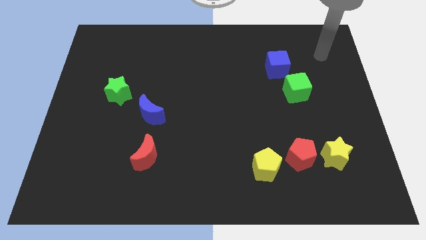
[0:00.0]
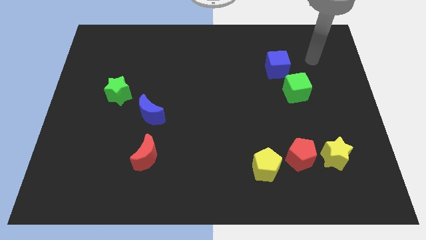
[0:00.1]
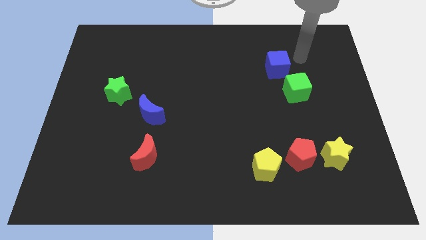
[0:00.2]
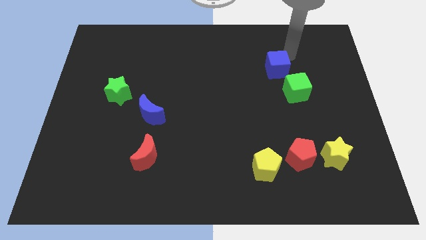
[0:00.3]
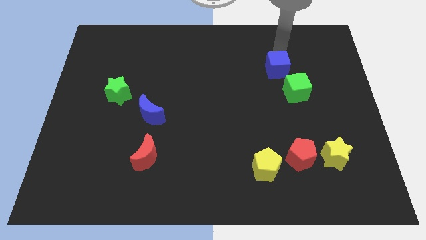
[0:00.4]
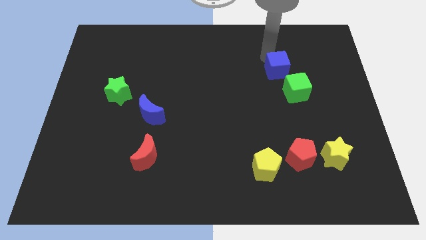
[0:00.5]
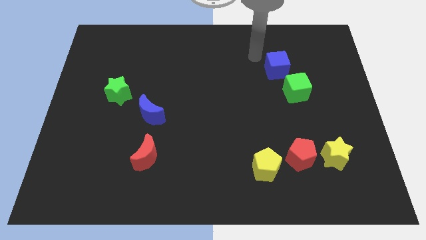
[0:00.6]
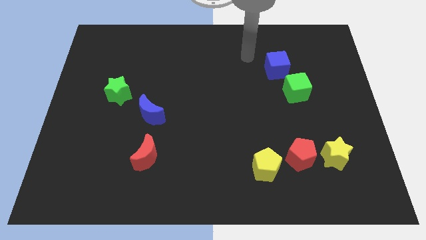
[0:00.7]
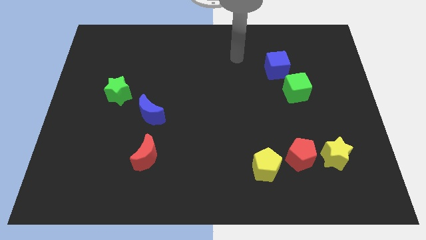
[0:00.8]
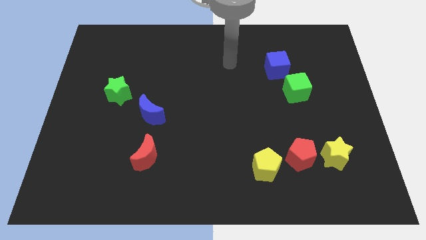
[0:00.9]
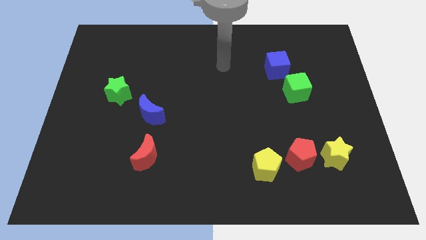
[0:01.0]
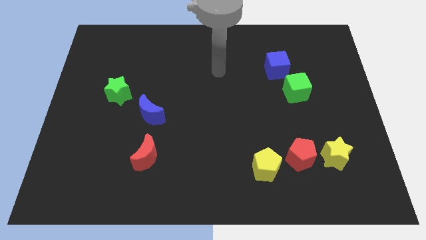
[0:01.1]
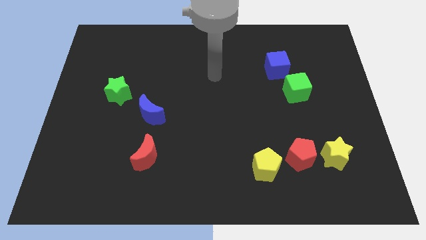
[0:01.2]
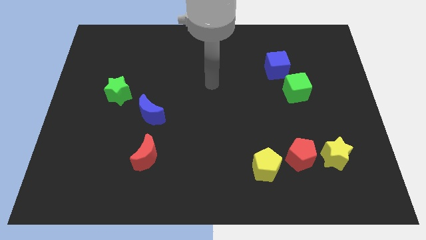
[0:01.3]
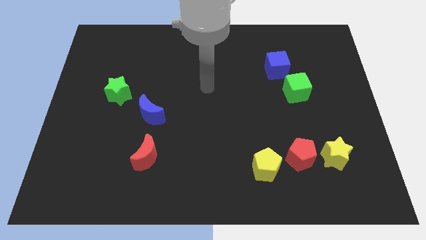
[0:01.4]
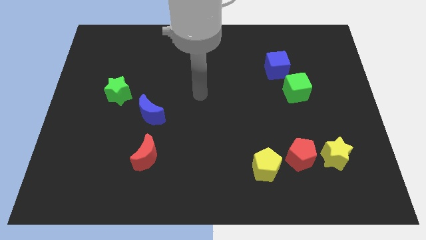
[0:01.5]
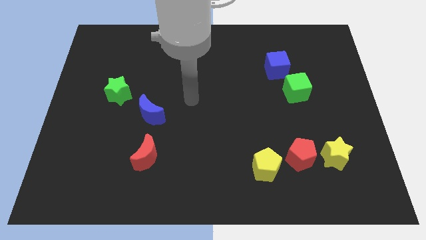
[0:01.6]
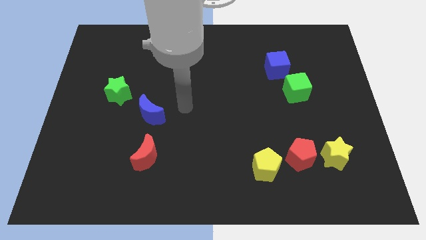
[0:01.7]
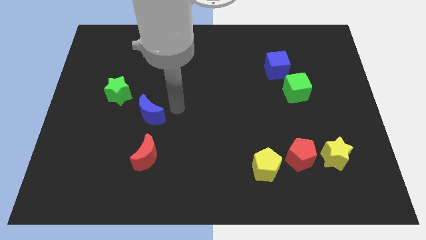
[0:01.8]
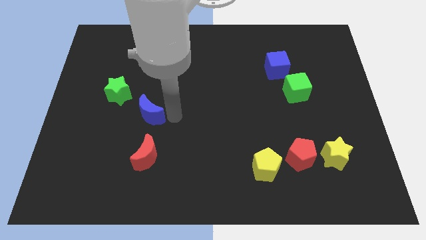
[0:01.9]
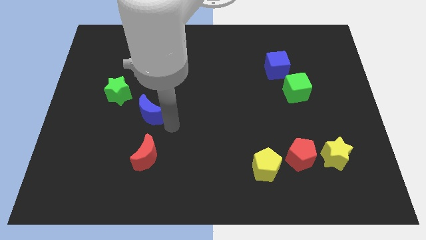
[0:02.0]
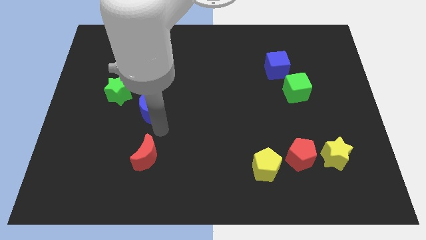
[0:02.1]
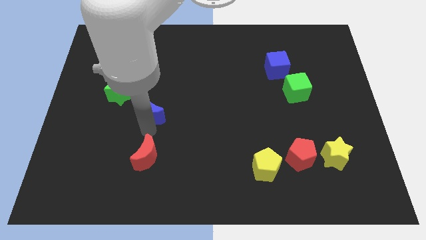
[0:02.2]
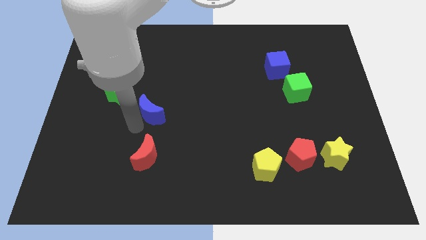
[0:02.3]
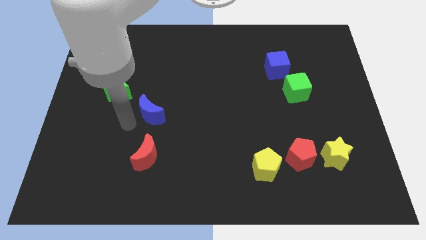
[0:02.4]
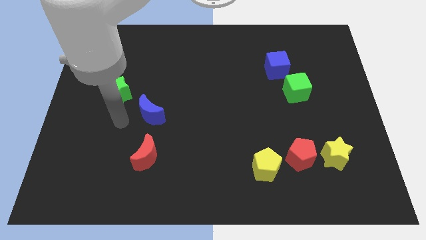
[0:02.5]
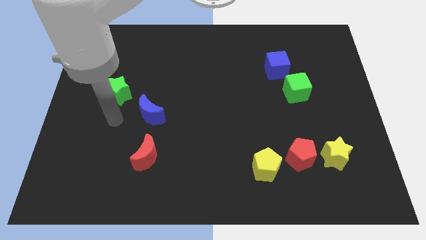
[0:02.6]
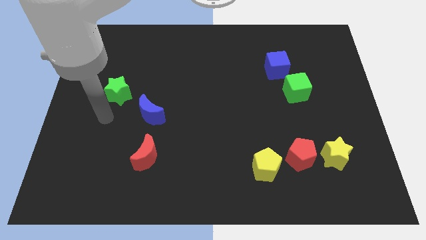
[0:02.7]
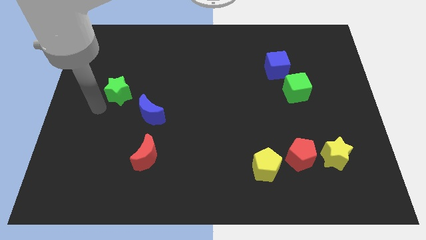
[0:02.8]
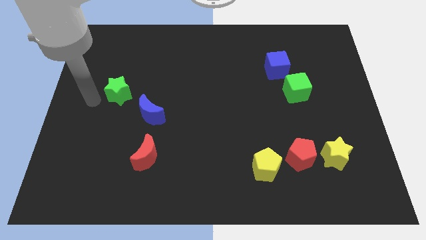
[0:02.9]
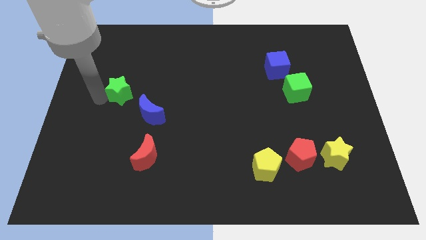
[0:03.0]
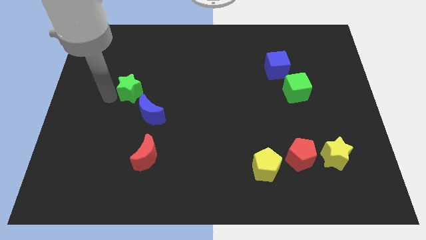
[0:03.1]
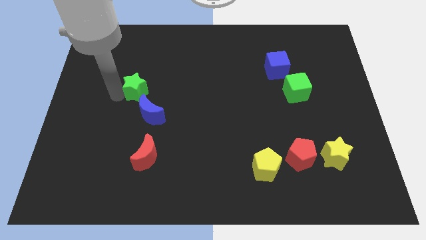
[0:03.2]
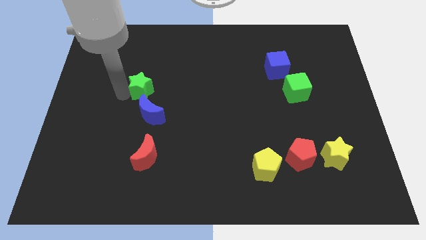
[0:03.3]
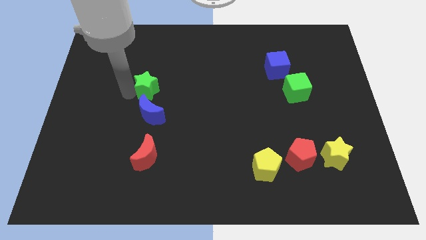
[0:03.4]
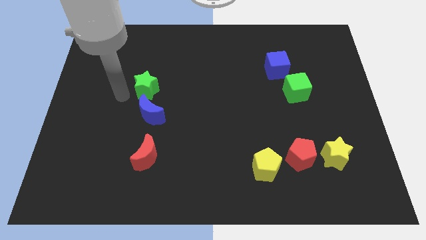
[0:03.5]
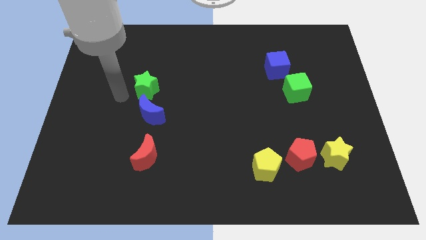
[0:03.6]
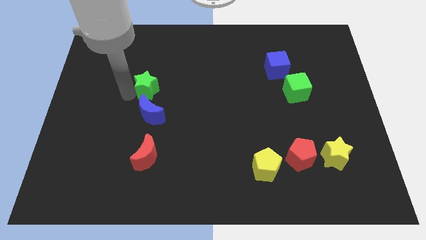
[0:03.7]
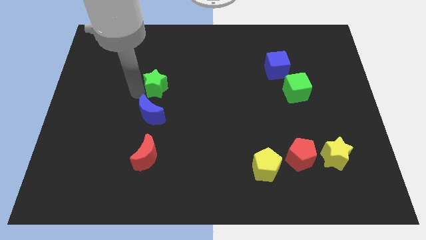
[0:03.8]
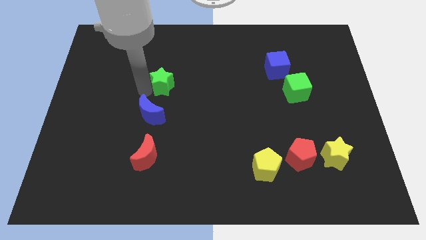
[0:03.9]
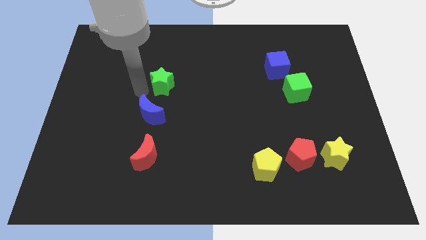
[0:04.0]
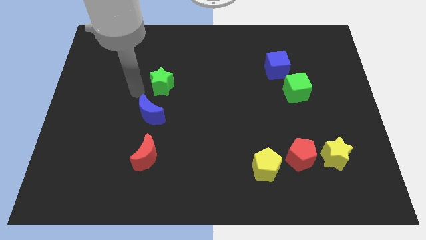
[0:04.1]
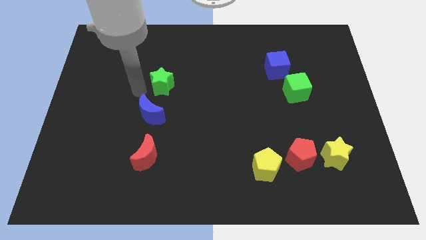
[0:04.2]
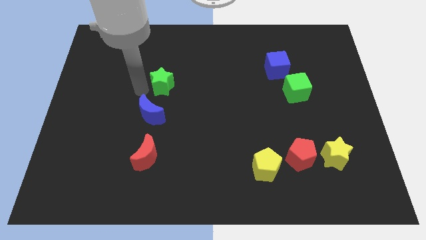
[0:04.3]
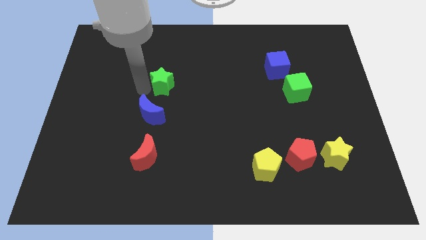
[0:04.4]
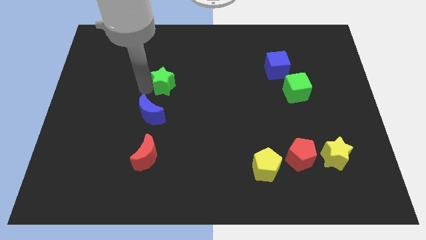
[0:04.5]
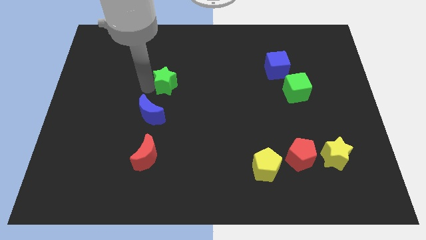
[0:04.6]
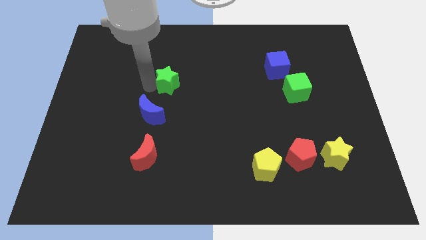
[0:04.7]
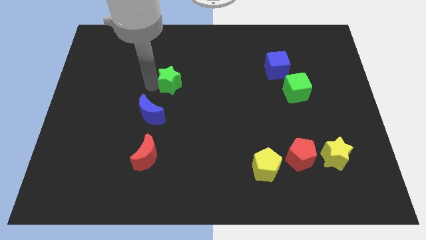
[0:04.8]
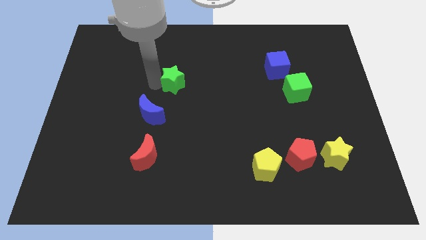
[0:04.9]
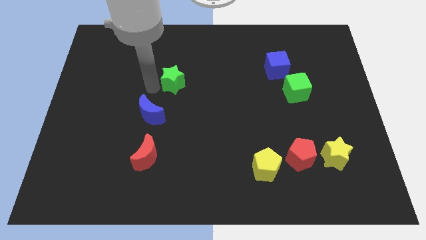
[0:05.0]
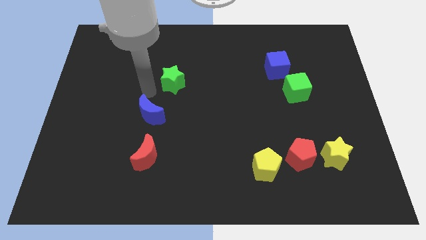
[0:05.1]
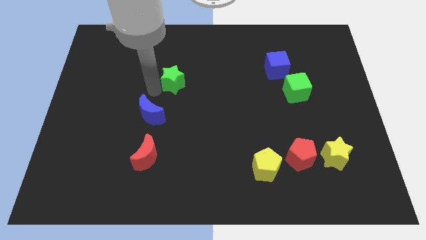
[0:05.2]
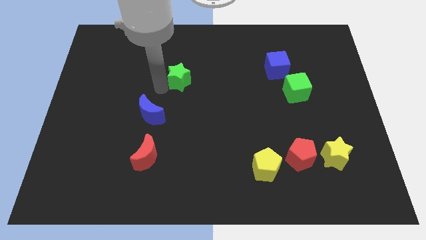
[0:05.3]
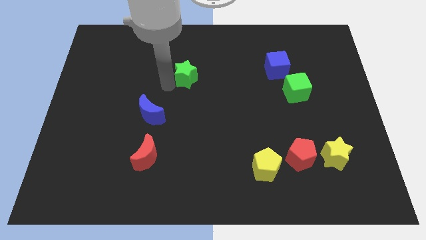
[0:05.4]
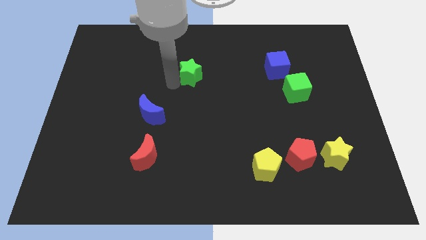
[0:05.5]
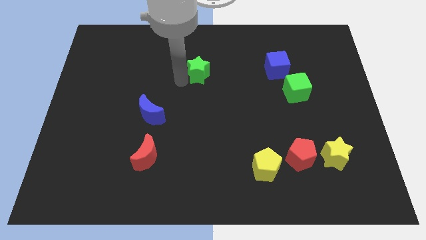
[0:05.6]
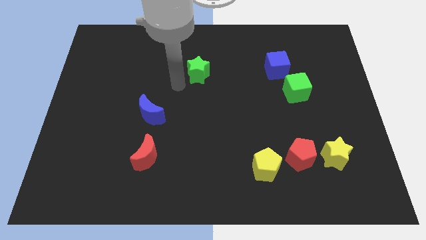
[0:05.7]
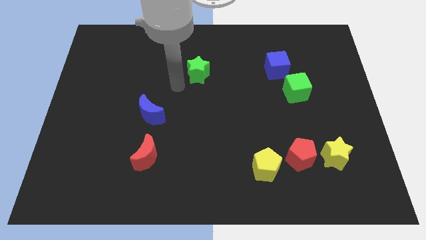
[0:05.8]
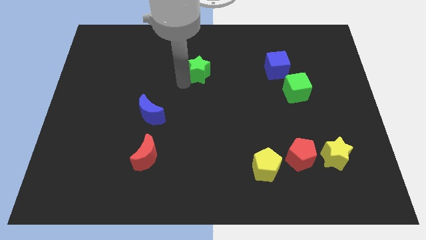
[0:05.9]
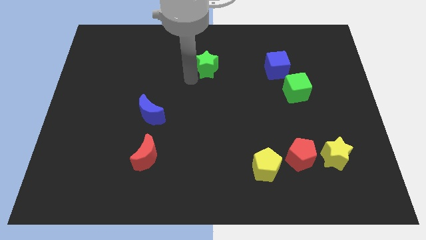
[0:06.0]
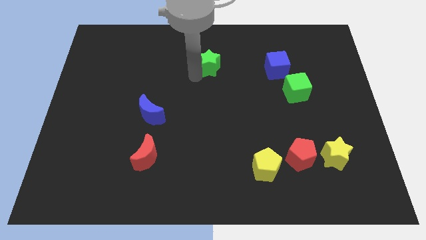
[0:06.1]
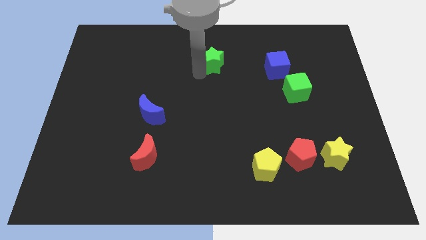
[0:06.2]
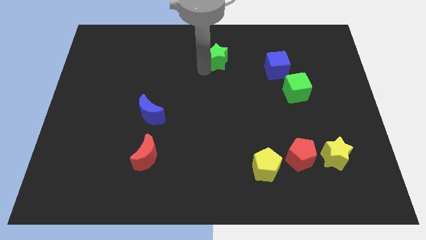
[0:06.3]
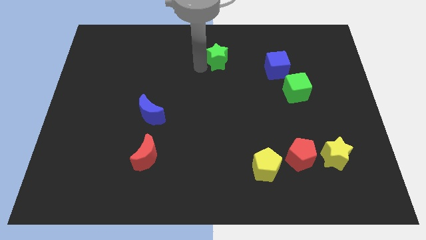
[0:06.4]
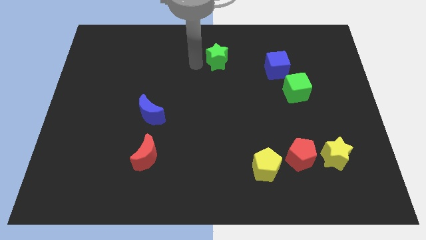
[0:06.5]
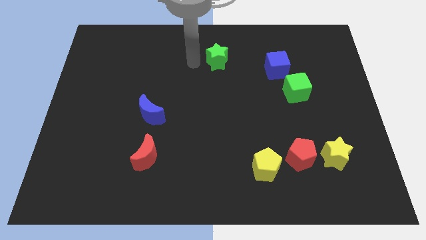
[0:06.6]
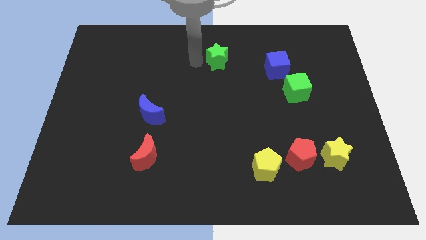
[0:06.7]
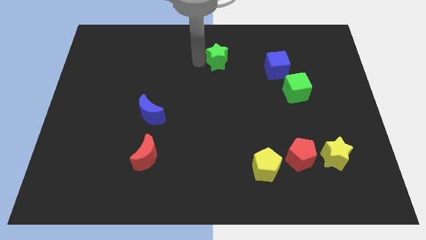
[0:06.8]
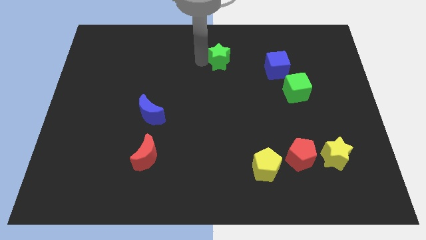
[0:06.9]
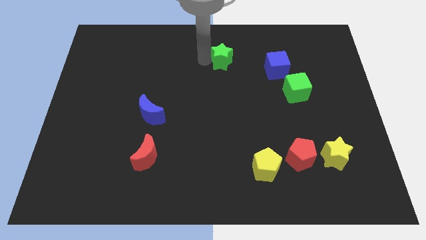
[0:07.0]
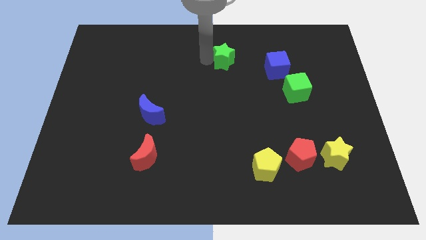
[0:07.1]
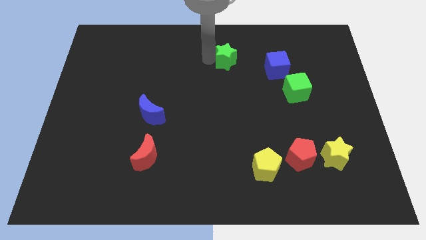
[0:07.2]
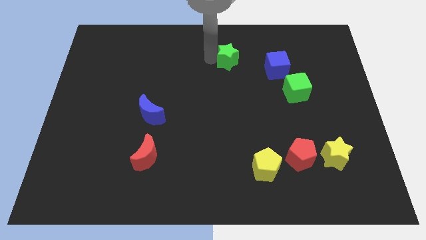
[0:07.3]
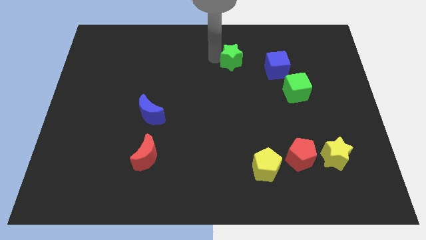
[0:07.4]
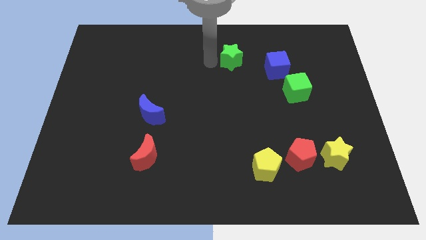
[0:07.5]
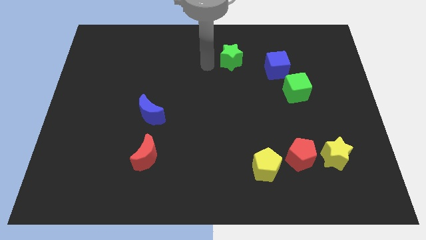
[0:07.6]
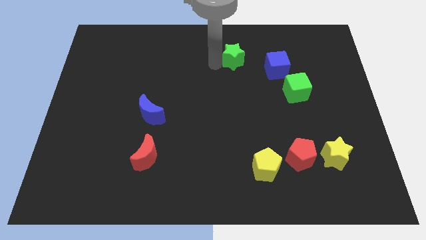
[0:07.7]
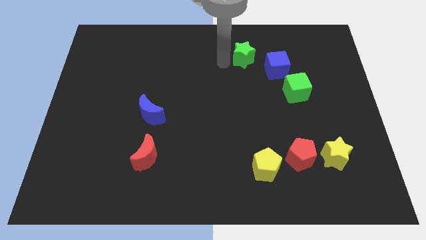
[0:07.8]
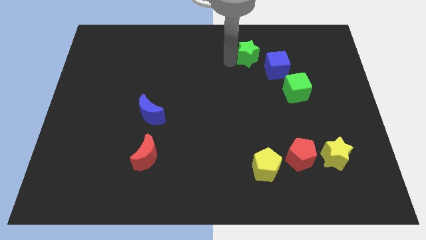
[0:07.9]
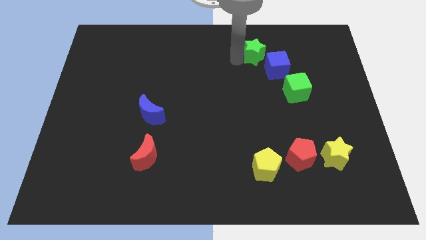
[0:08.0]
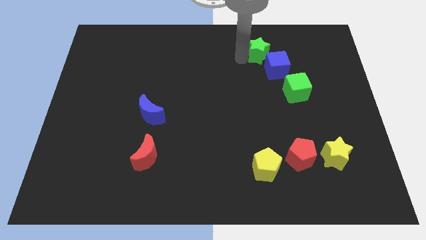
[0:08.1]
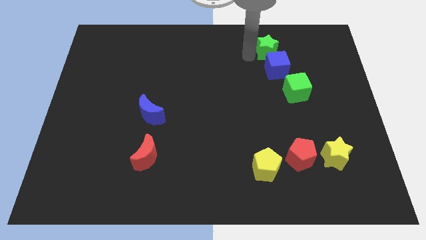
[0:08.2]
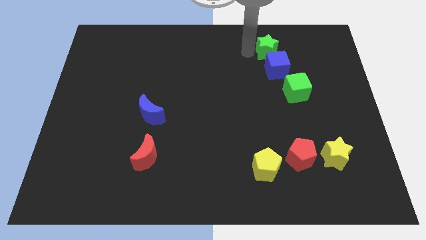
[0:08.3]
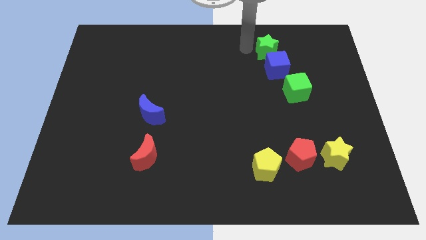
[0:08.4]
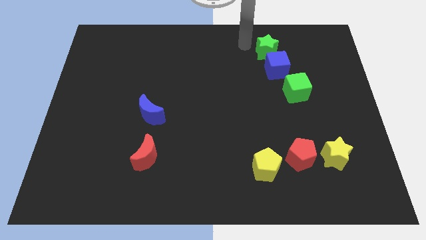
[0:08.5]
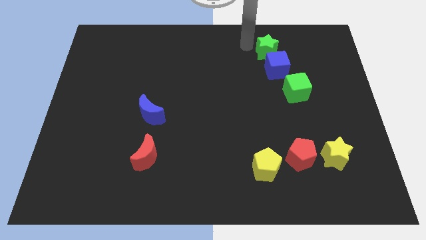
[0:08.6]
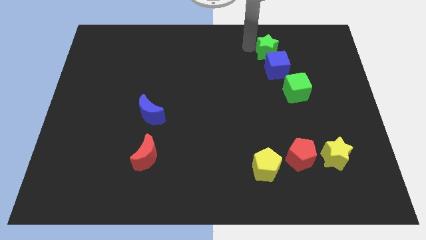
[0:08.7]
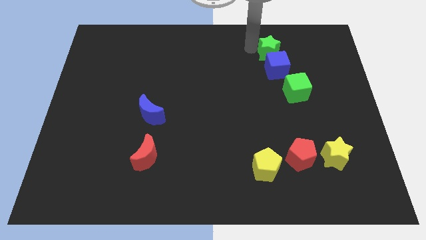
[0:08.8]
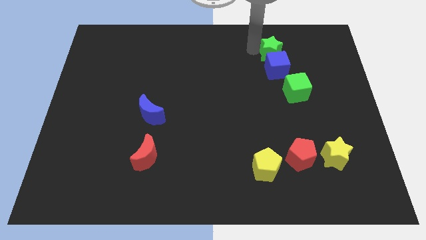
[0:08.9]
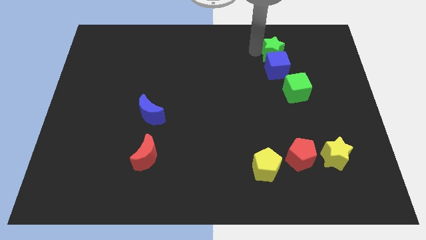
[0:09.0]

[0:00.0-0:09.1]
push the green star above the green cube
